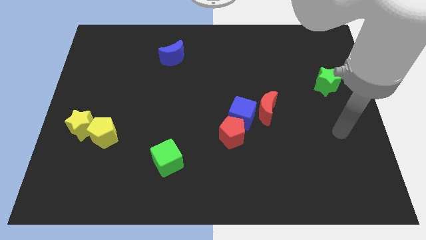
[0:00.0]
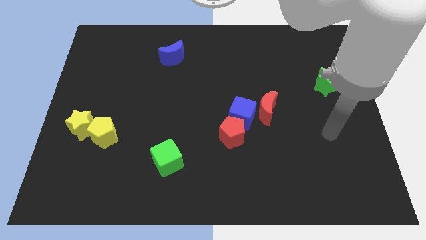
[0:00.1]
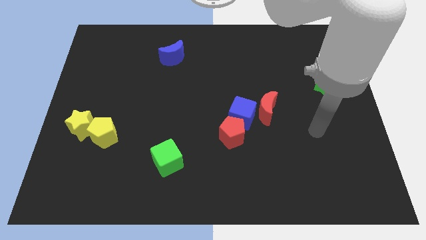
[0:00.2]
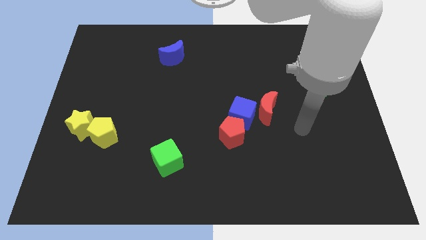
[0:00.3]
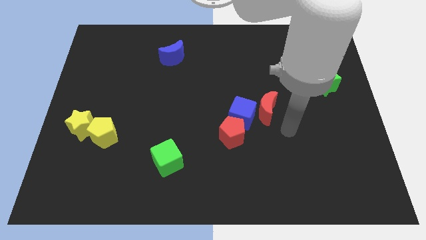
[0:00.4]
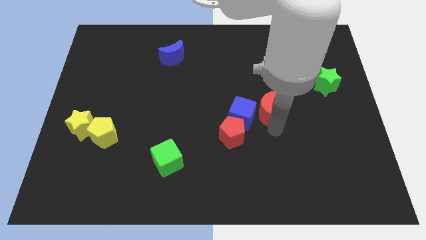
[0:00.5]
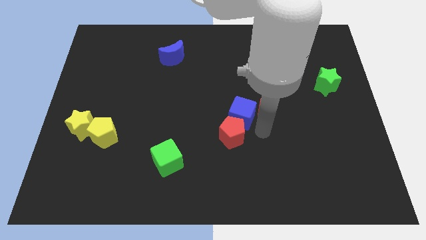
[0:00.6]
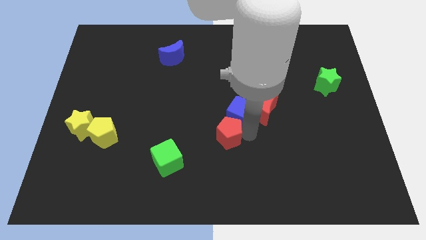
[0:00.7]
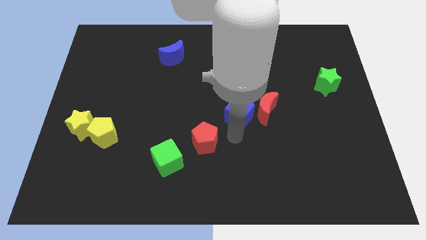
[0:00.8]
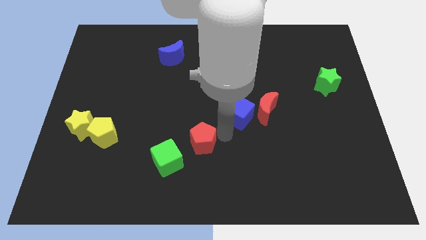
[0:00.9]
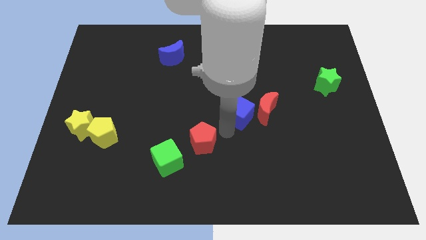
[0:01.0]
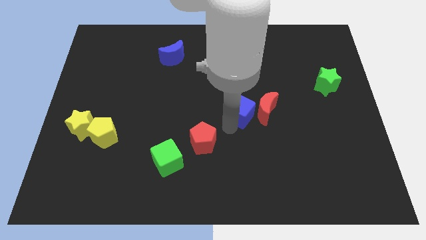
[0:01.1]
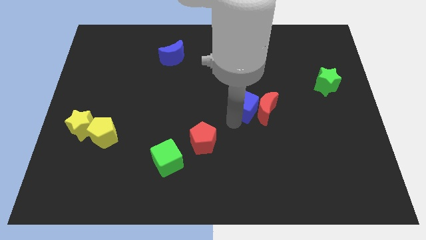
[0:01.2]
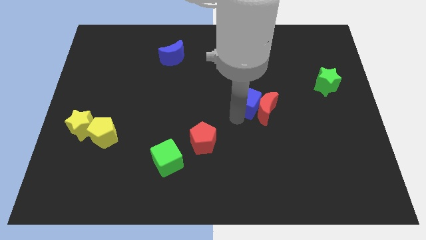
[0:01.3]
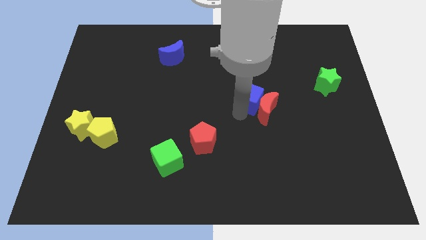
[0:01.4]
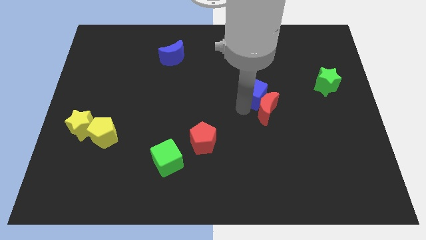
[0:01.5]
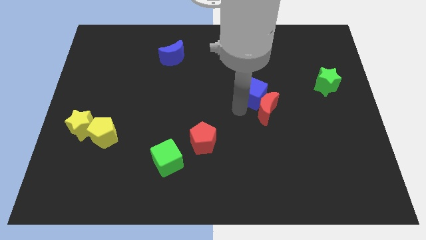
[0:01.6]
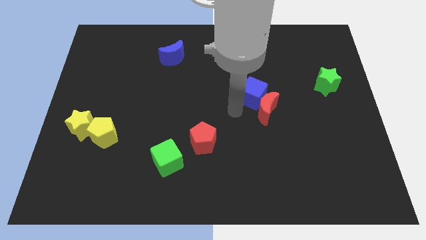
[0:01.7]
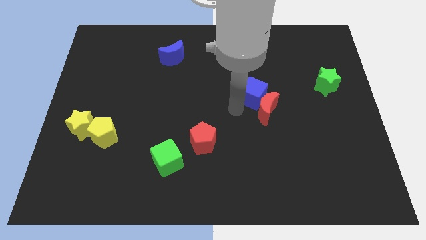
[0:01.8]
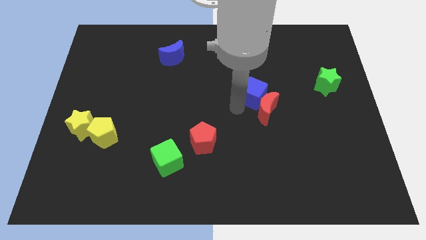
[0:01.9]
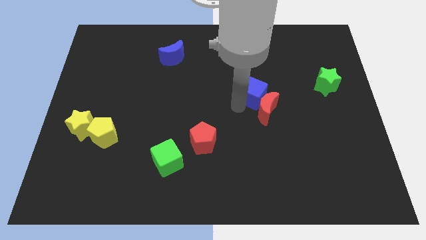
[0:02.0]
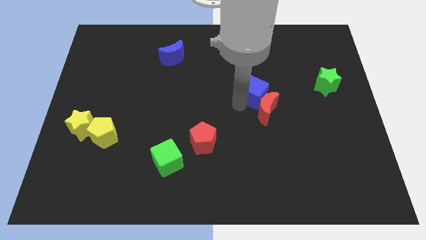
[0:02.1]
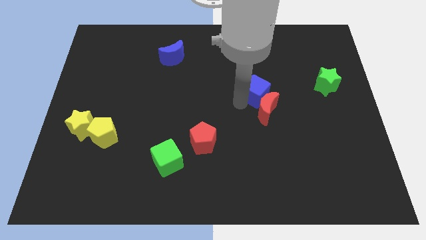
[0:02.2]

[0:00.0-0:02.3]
slide the blue cube slightly diagonally upwards and right

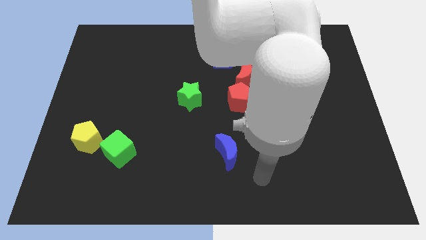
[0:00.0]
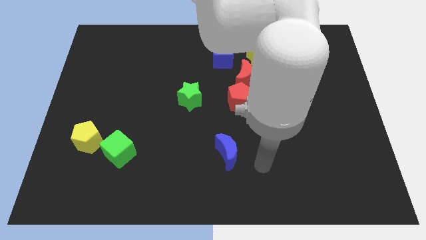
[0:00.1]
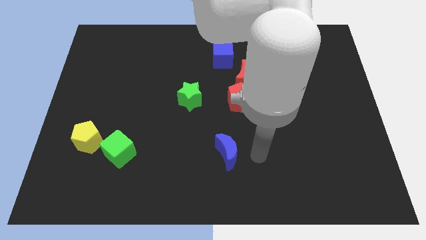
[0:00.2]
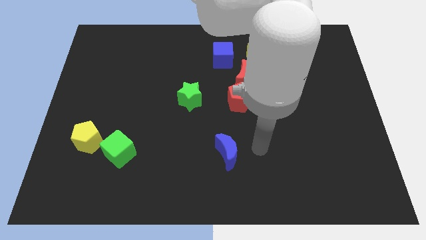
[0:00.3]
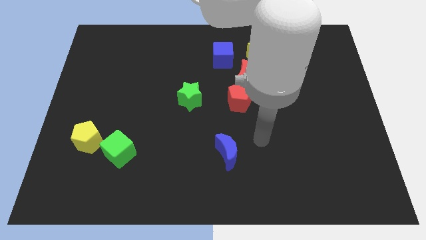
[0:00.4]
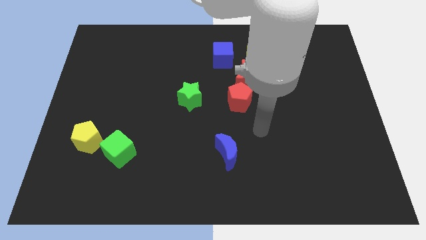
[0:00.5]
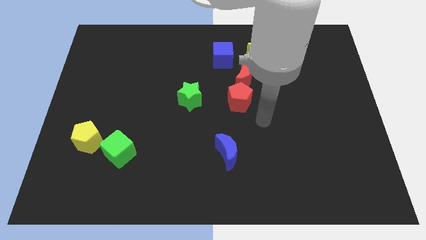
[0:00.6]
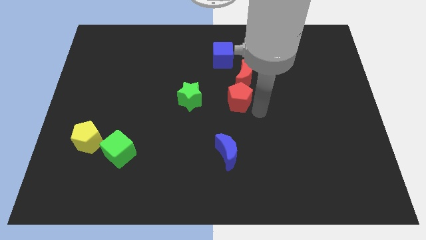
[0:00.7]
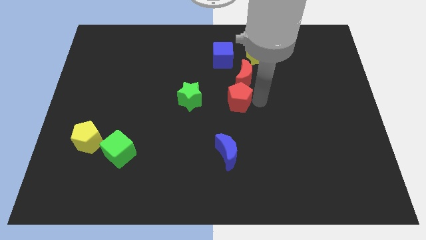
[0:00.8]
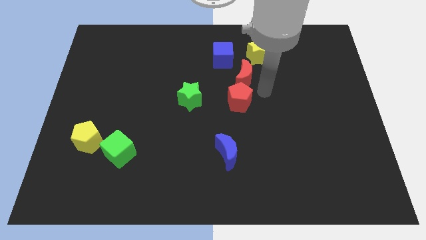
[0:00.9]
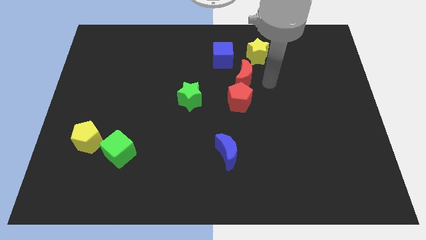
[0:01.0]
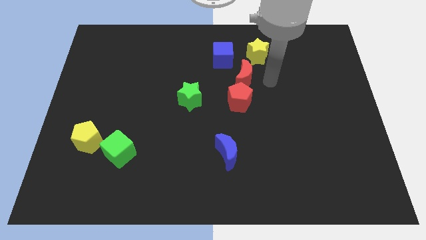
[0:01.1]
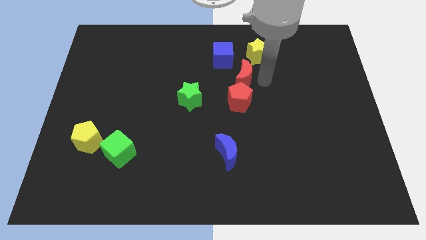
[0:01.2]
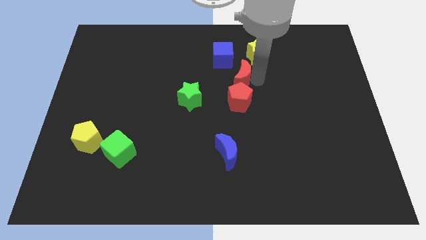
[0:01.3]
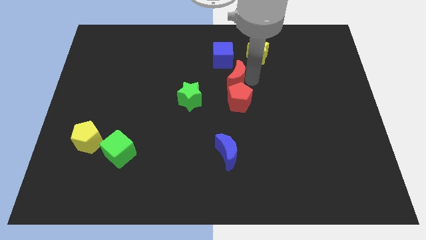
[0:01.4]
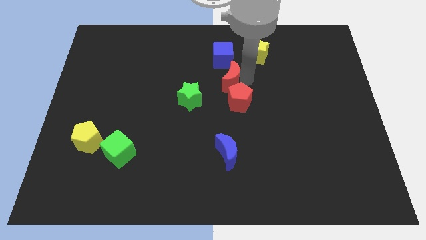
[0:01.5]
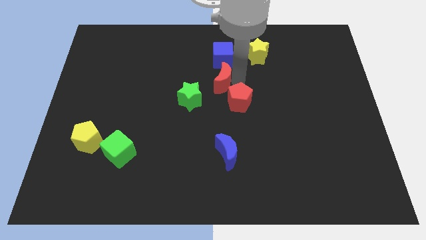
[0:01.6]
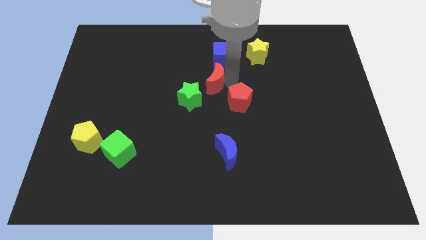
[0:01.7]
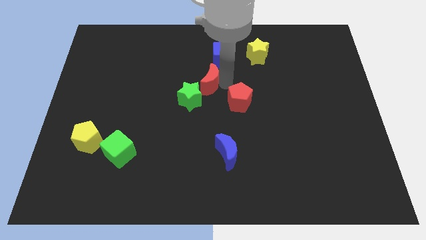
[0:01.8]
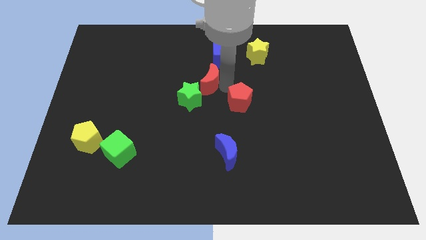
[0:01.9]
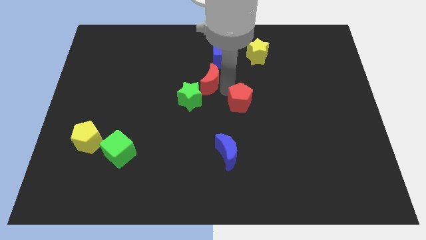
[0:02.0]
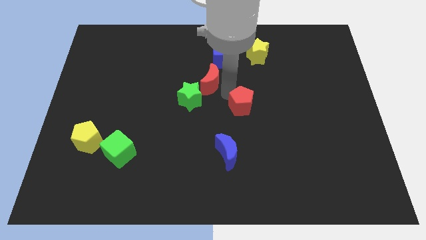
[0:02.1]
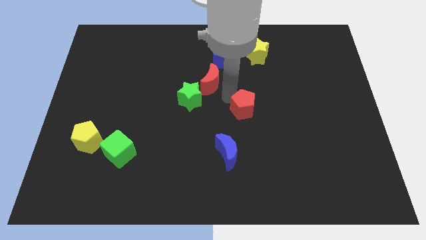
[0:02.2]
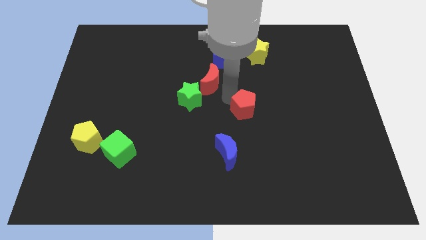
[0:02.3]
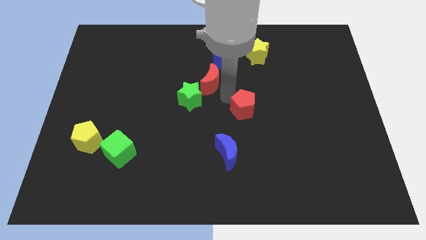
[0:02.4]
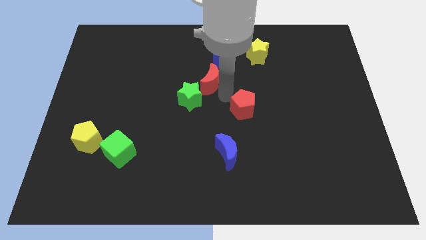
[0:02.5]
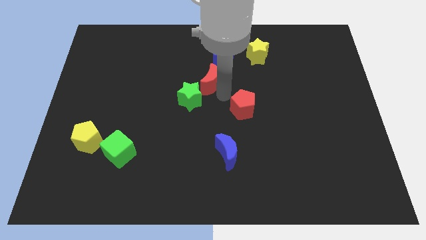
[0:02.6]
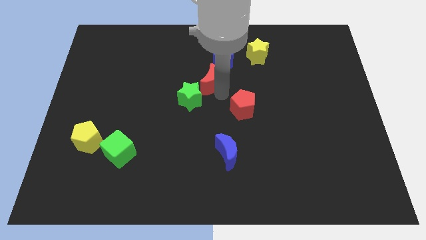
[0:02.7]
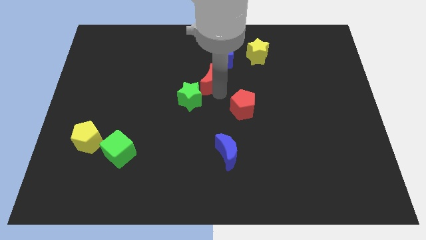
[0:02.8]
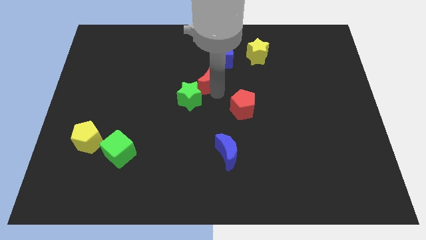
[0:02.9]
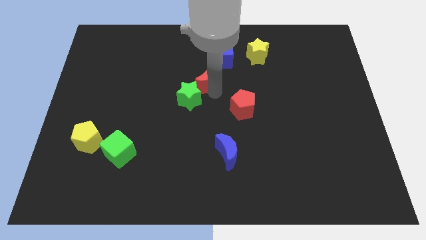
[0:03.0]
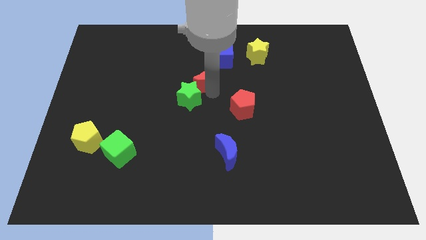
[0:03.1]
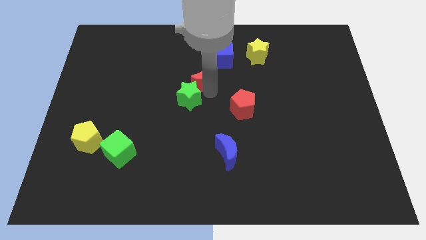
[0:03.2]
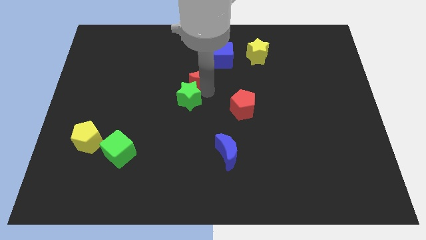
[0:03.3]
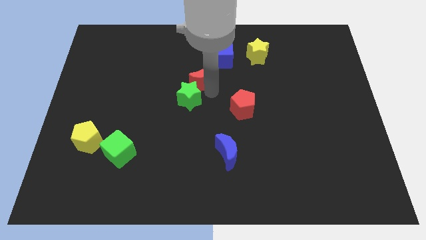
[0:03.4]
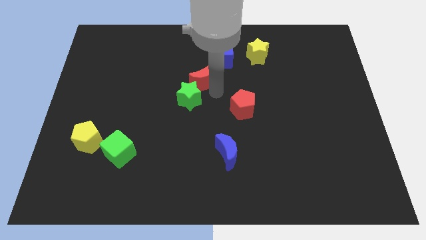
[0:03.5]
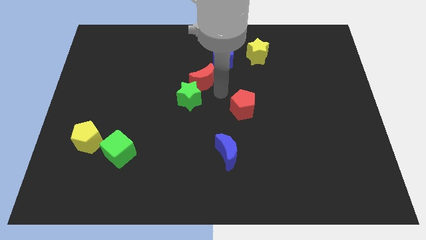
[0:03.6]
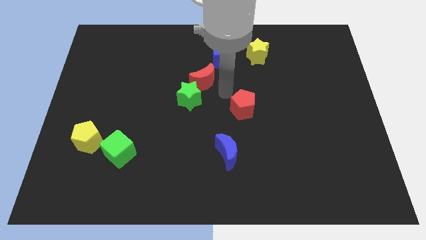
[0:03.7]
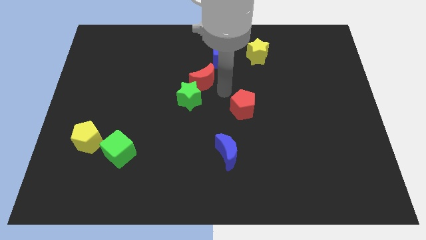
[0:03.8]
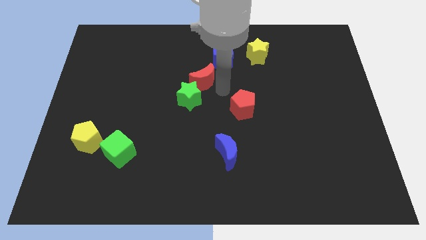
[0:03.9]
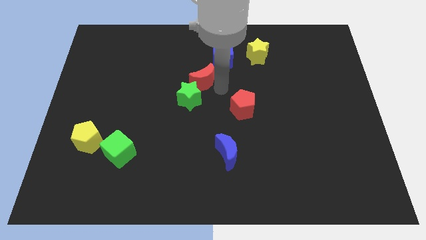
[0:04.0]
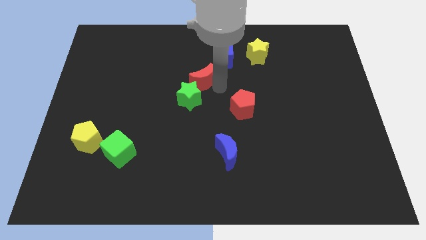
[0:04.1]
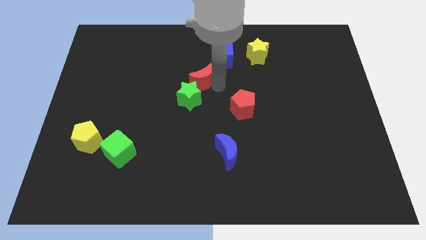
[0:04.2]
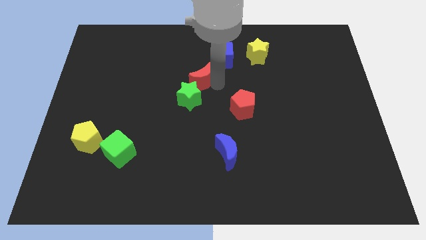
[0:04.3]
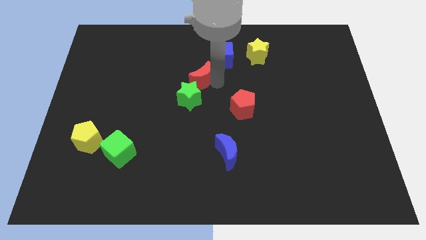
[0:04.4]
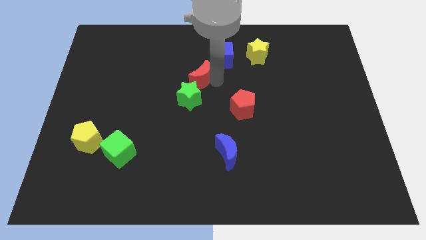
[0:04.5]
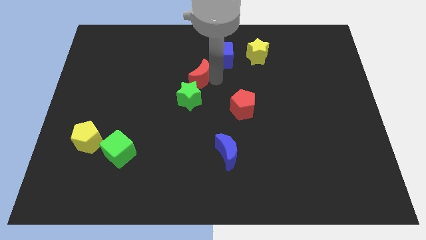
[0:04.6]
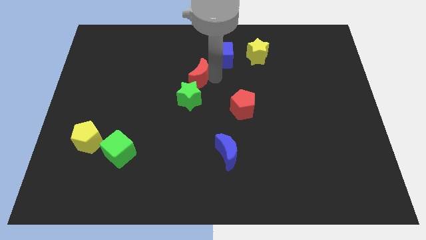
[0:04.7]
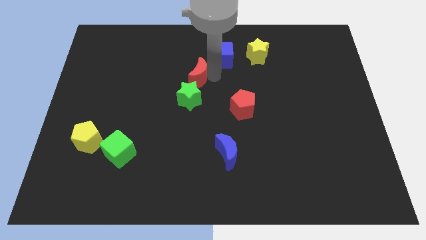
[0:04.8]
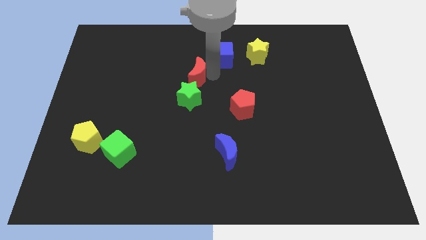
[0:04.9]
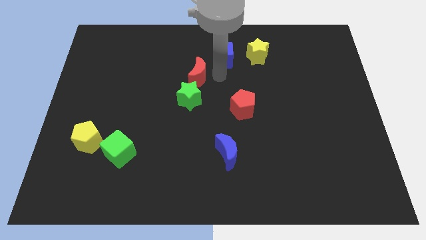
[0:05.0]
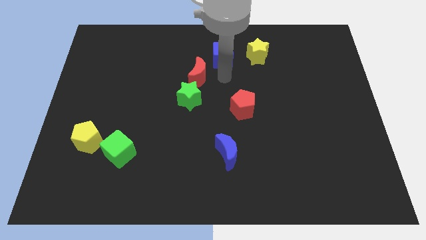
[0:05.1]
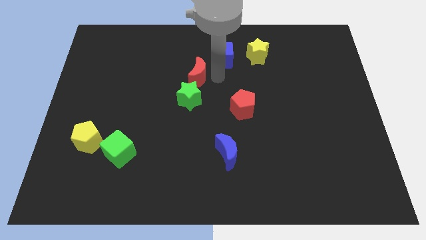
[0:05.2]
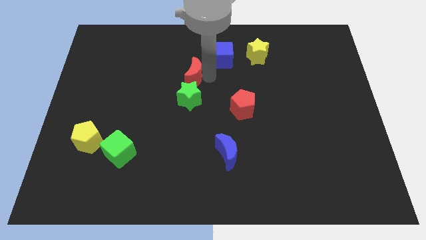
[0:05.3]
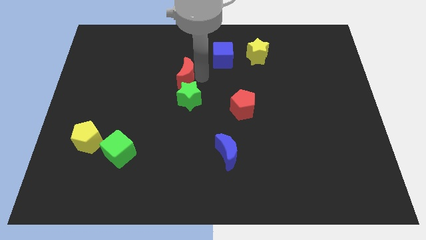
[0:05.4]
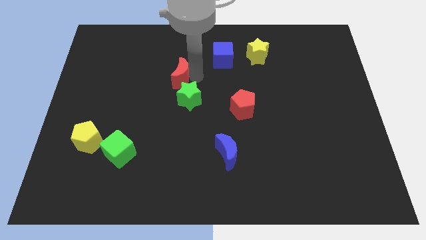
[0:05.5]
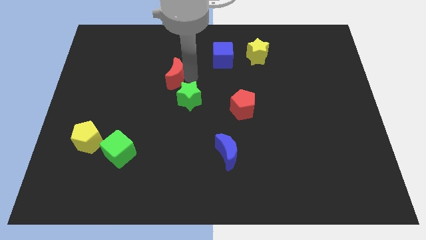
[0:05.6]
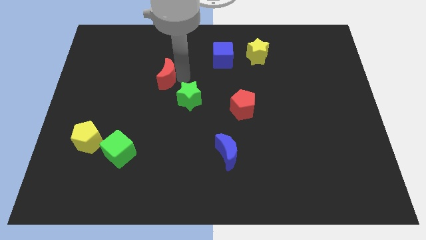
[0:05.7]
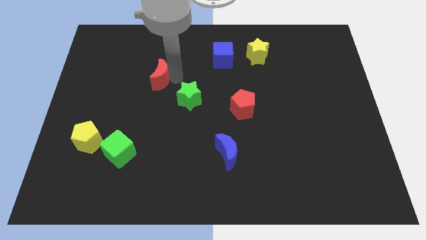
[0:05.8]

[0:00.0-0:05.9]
slide the red moon left
